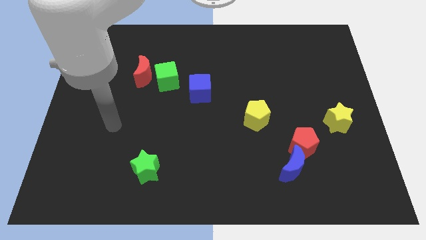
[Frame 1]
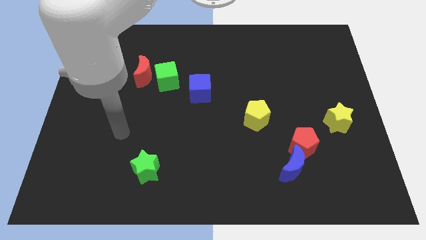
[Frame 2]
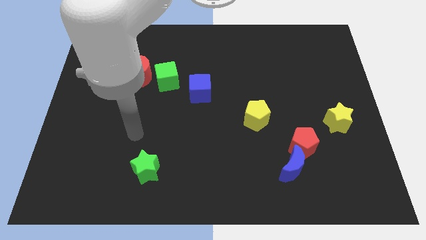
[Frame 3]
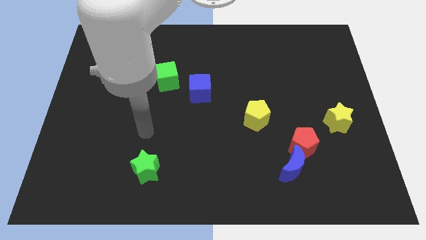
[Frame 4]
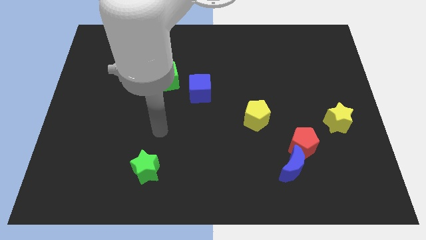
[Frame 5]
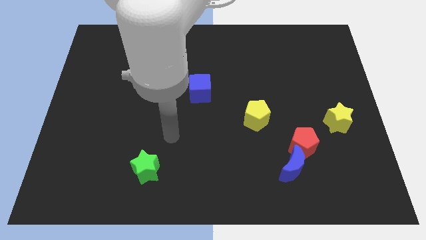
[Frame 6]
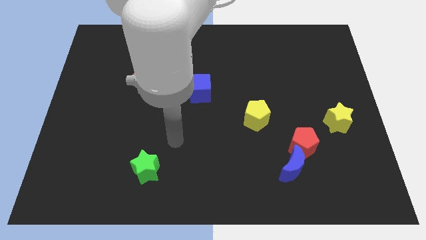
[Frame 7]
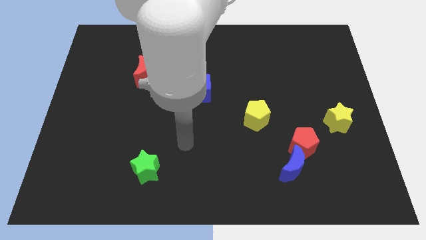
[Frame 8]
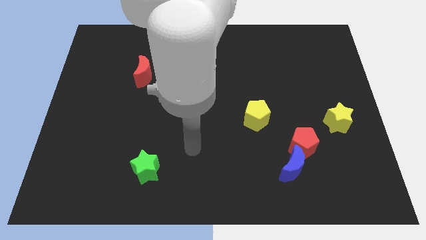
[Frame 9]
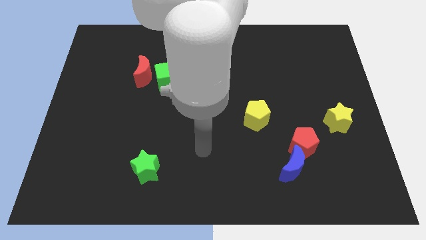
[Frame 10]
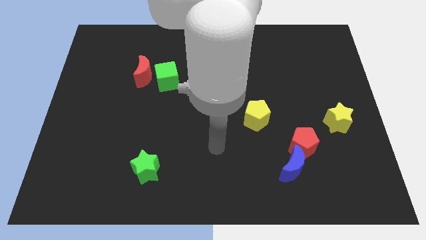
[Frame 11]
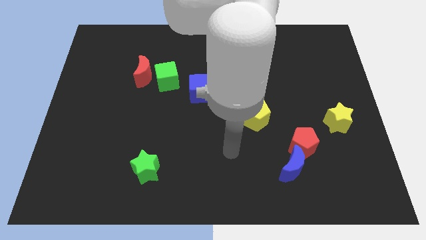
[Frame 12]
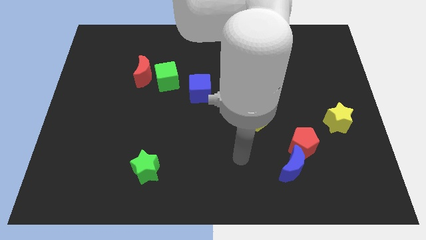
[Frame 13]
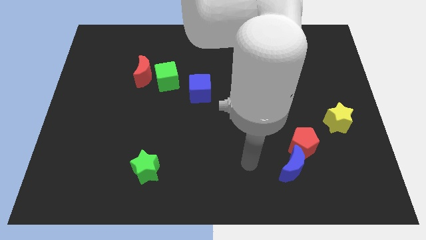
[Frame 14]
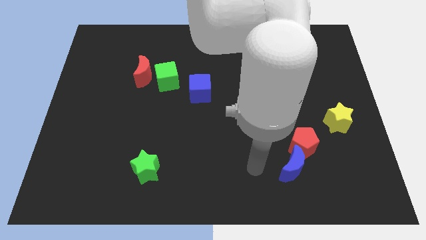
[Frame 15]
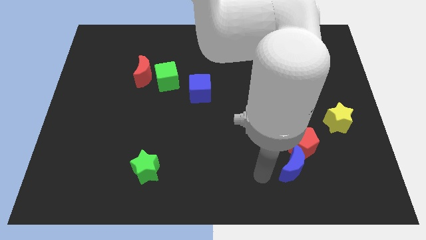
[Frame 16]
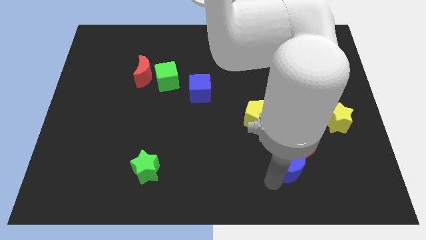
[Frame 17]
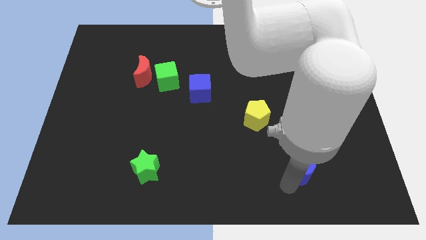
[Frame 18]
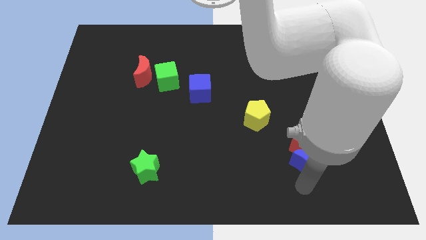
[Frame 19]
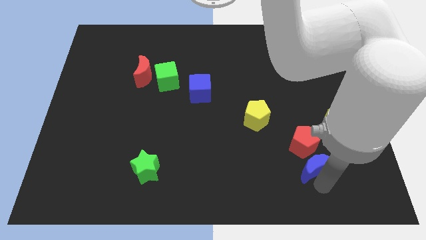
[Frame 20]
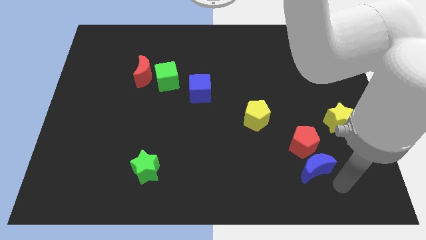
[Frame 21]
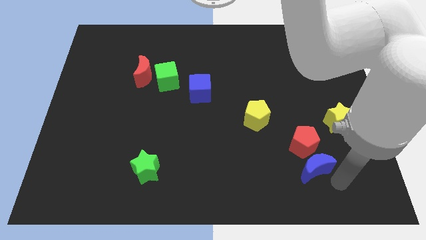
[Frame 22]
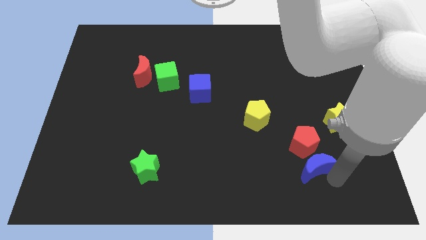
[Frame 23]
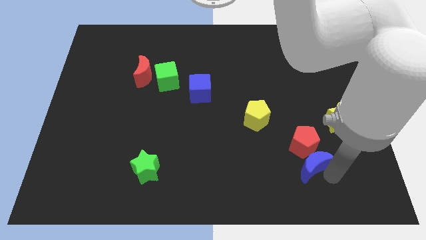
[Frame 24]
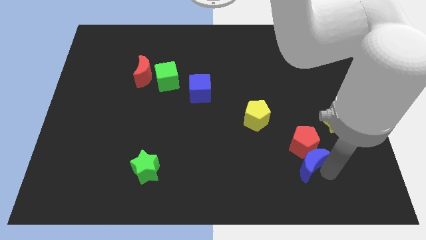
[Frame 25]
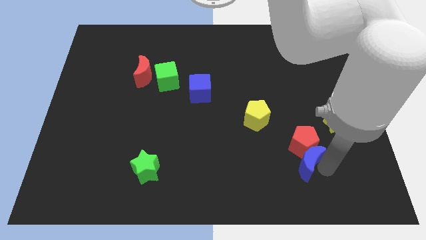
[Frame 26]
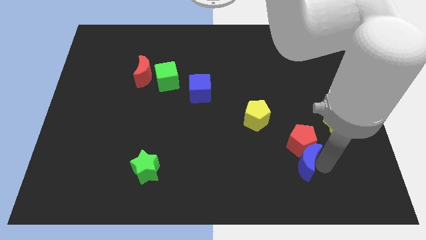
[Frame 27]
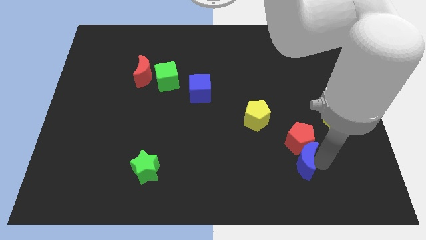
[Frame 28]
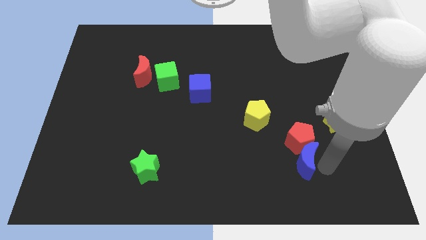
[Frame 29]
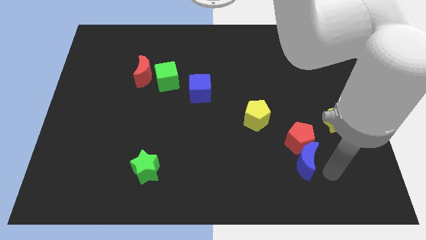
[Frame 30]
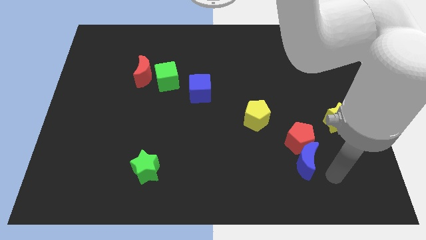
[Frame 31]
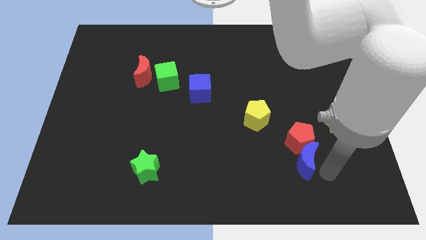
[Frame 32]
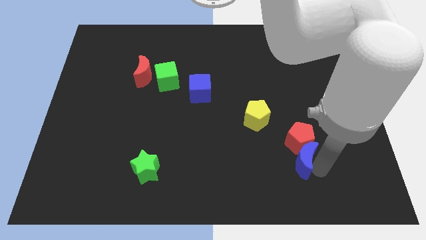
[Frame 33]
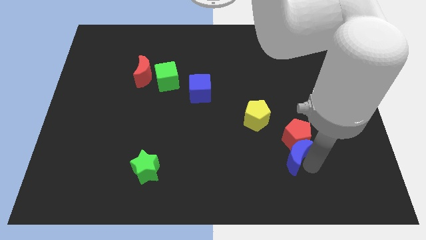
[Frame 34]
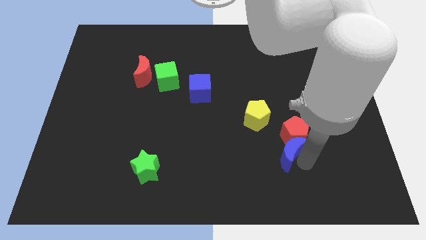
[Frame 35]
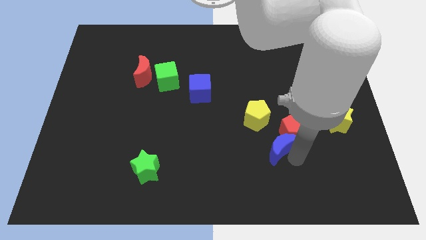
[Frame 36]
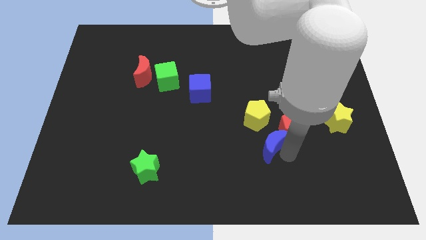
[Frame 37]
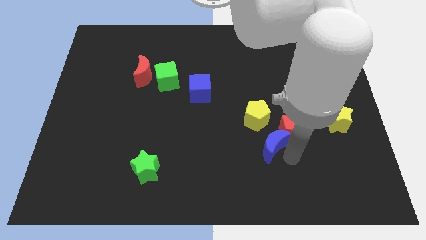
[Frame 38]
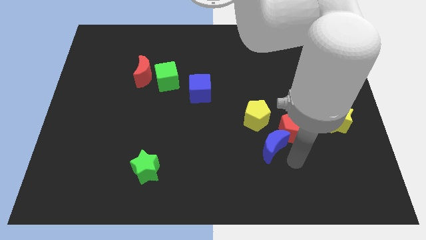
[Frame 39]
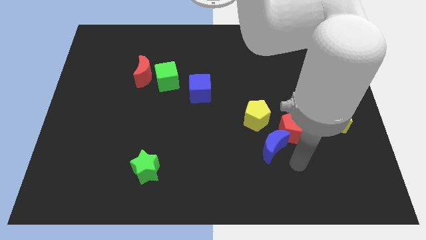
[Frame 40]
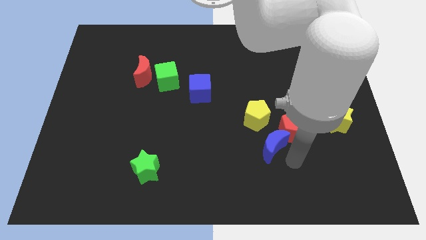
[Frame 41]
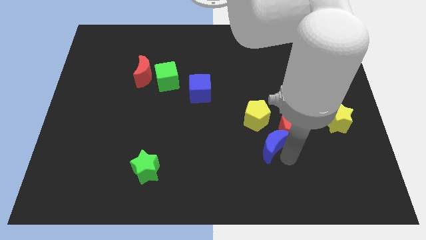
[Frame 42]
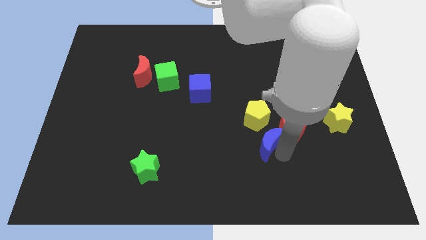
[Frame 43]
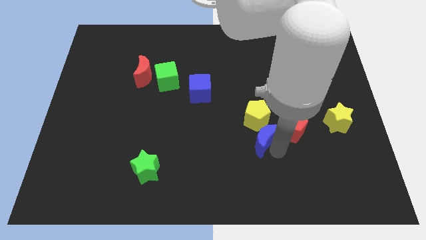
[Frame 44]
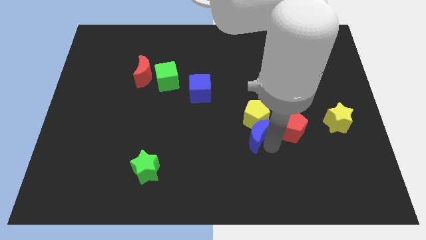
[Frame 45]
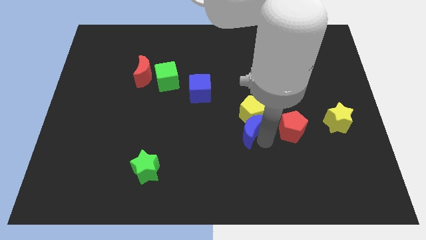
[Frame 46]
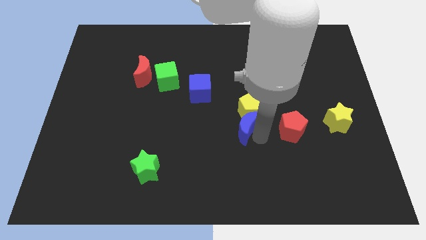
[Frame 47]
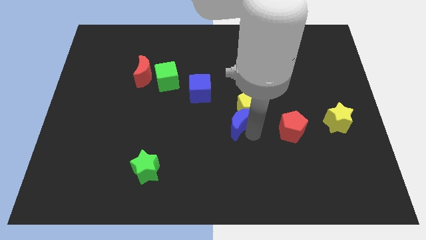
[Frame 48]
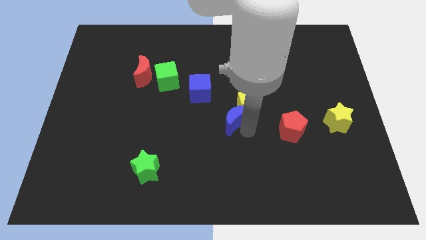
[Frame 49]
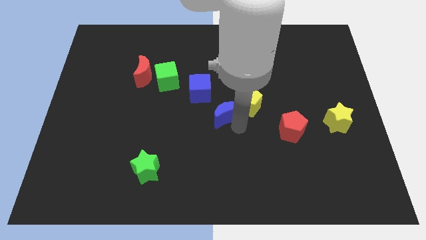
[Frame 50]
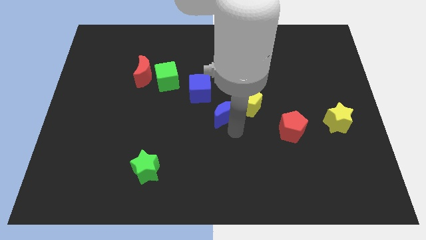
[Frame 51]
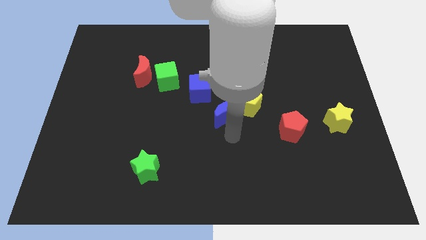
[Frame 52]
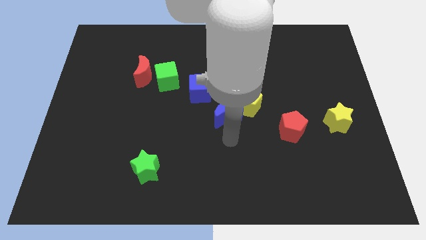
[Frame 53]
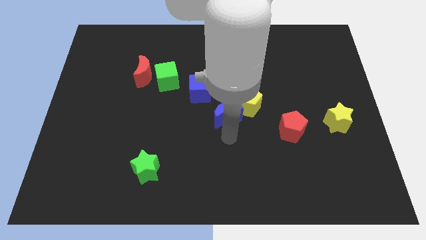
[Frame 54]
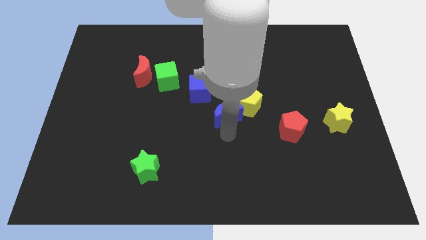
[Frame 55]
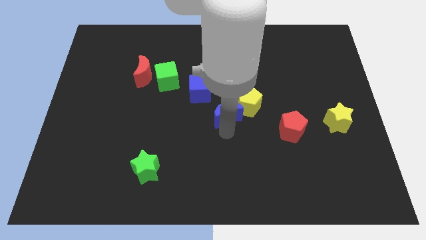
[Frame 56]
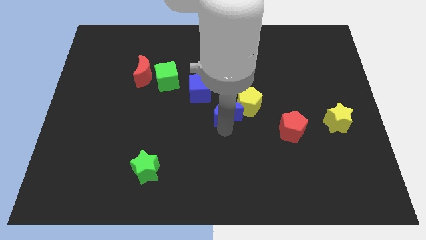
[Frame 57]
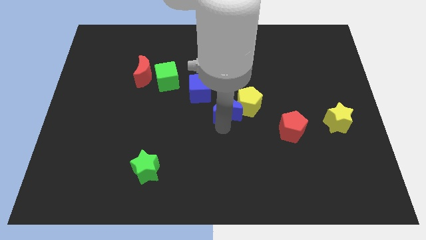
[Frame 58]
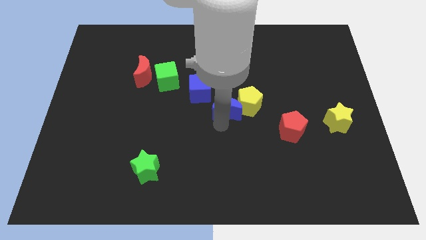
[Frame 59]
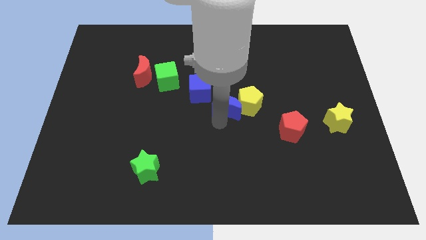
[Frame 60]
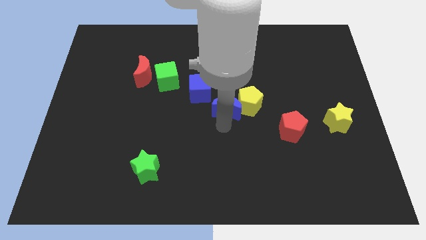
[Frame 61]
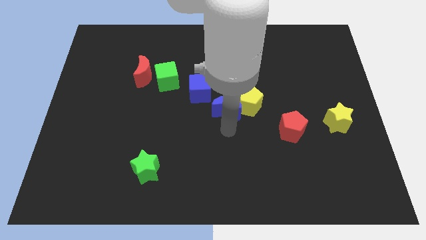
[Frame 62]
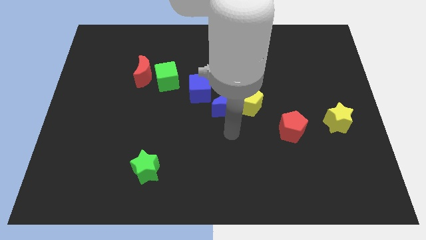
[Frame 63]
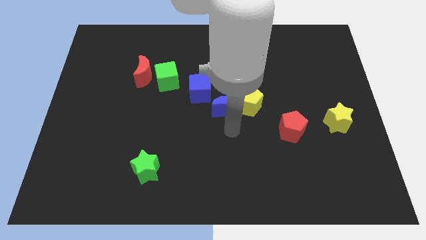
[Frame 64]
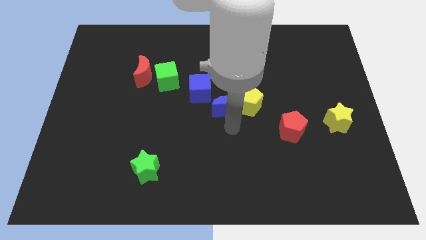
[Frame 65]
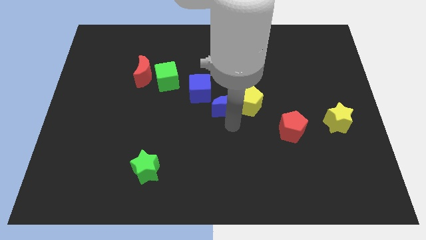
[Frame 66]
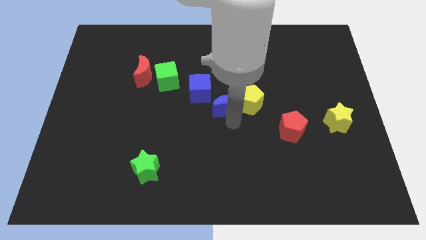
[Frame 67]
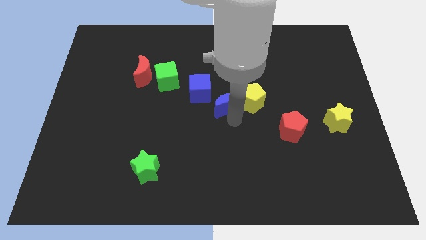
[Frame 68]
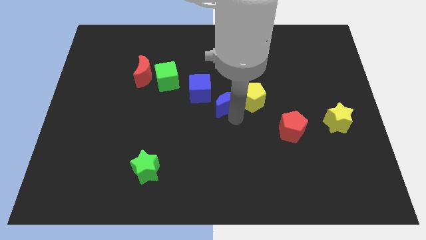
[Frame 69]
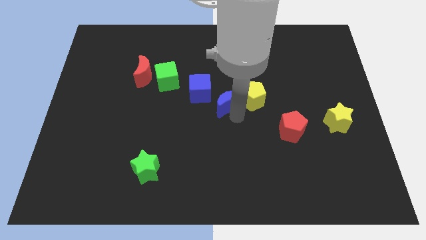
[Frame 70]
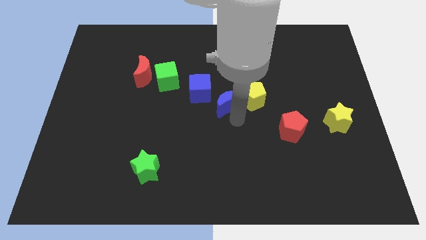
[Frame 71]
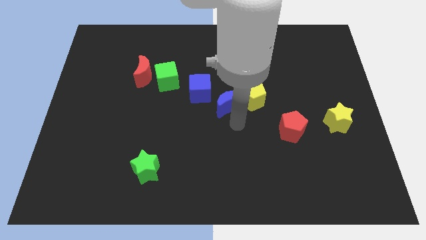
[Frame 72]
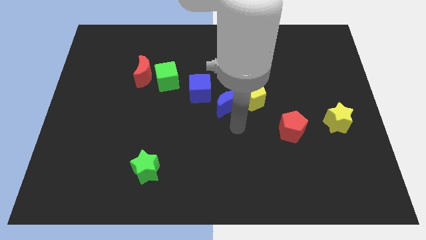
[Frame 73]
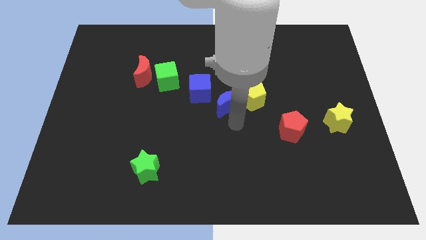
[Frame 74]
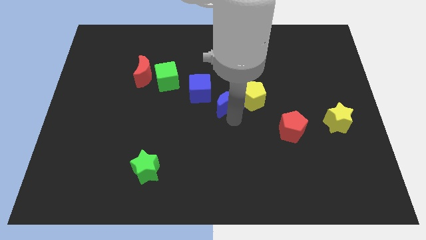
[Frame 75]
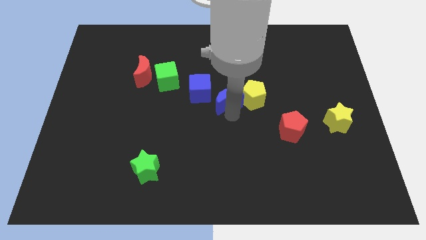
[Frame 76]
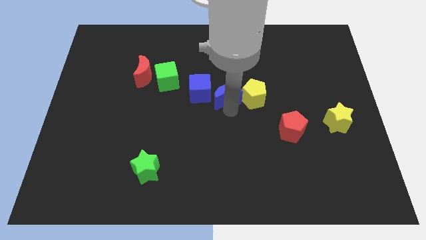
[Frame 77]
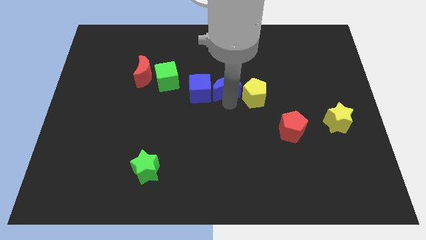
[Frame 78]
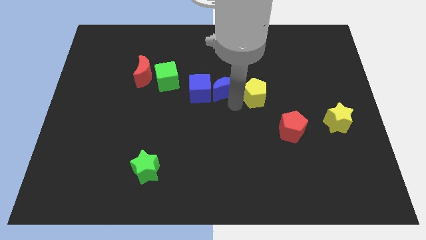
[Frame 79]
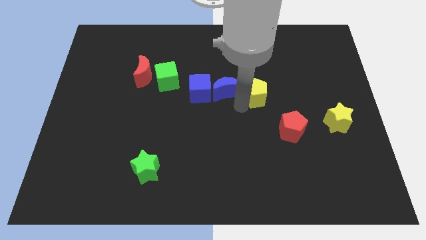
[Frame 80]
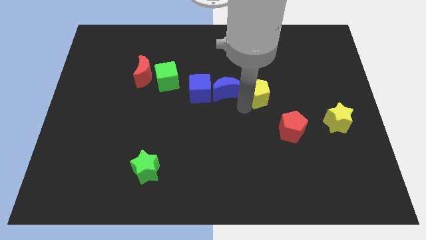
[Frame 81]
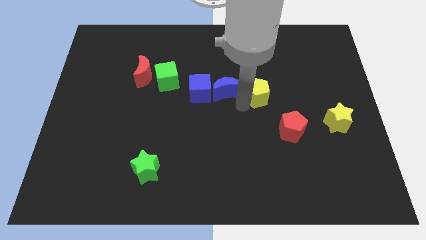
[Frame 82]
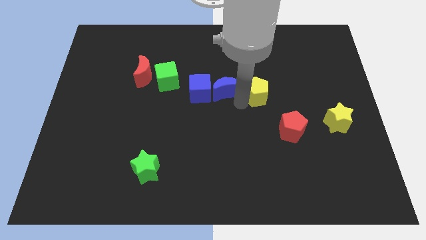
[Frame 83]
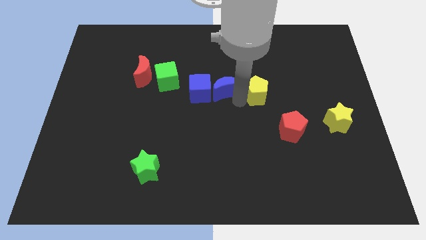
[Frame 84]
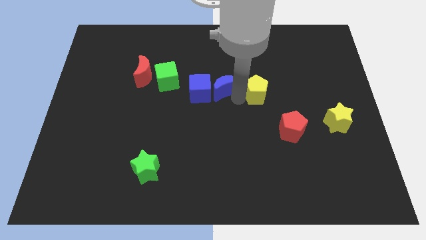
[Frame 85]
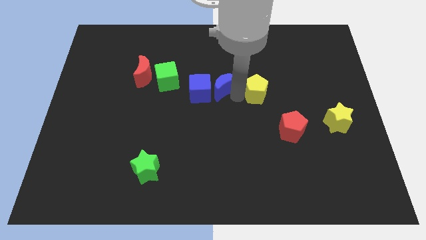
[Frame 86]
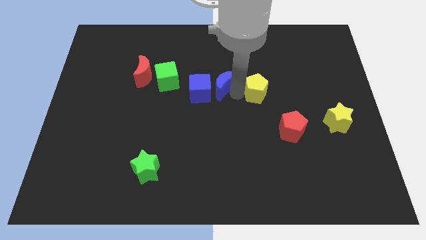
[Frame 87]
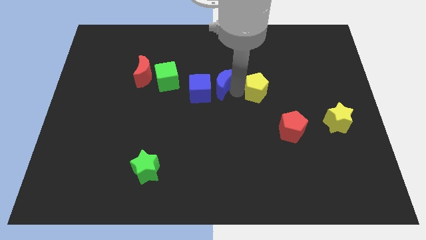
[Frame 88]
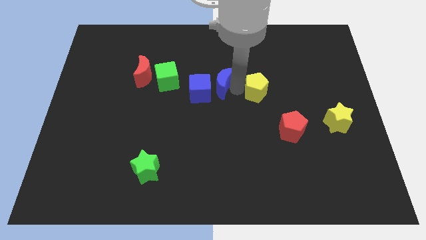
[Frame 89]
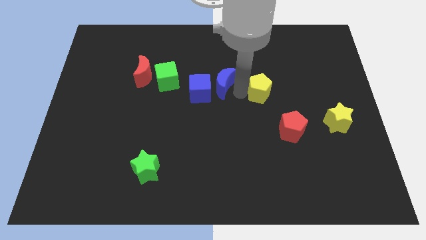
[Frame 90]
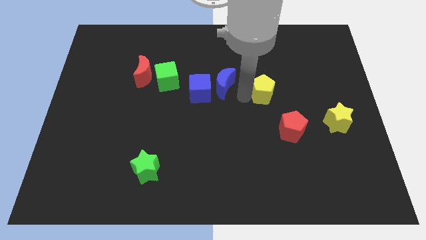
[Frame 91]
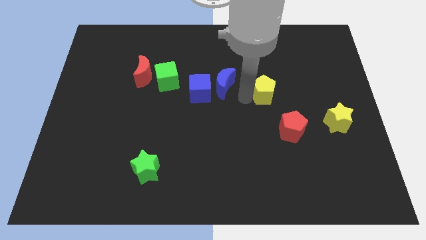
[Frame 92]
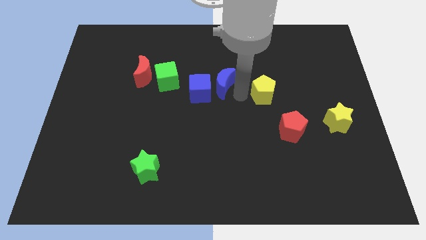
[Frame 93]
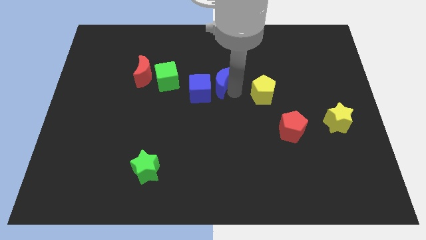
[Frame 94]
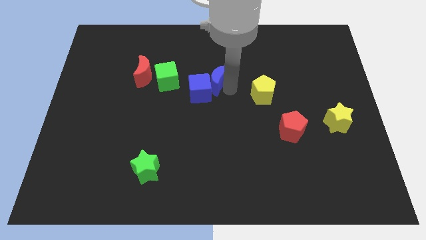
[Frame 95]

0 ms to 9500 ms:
move the blue moon to the top of the blue cube
